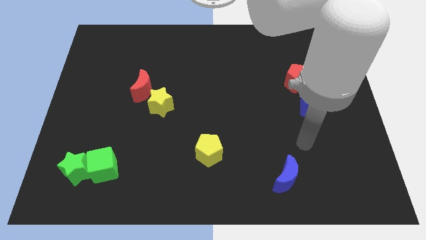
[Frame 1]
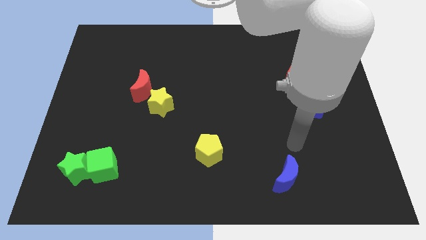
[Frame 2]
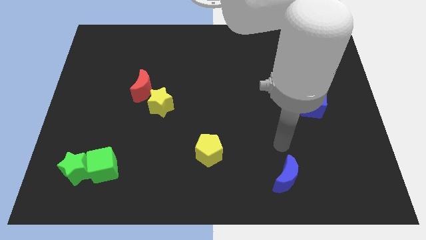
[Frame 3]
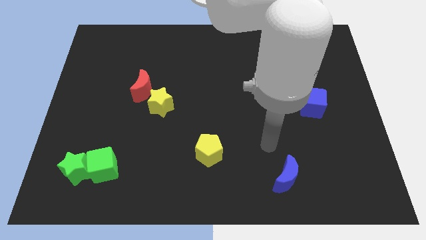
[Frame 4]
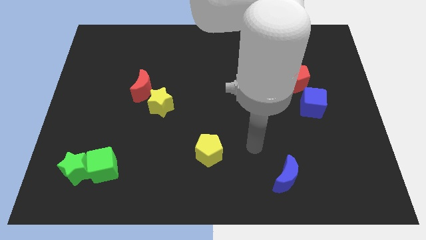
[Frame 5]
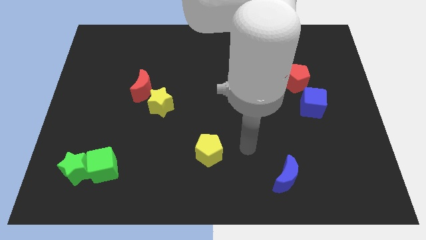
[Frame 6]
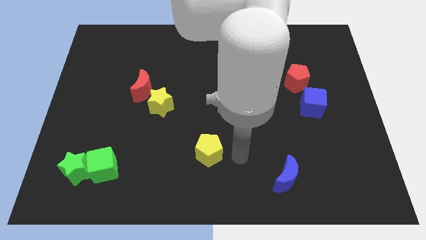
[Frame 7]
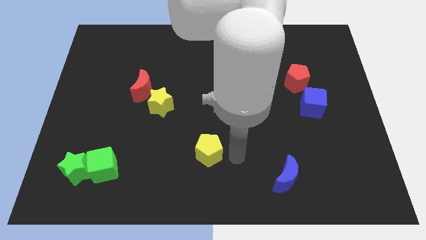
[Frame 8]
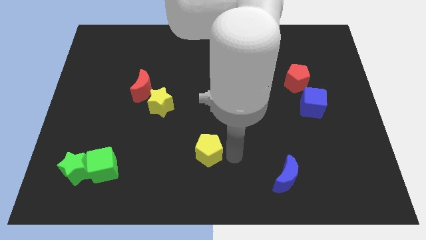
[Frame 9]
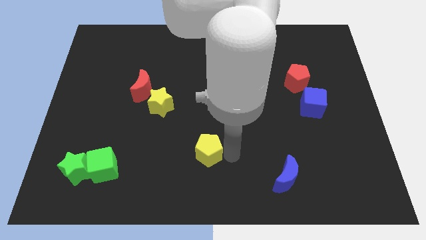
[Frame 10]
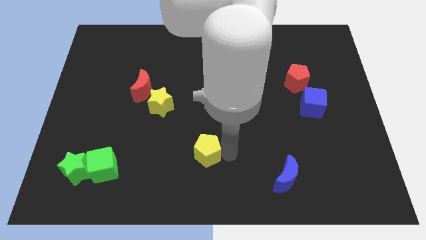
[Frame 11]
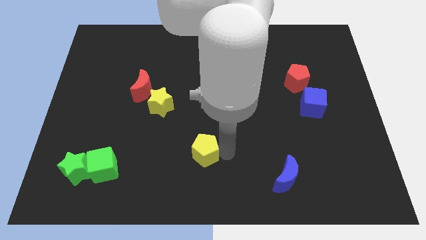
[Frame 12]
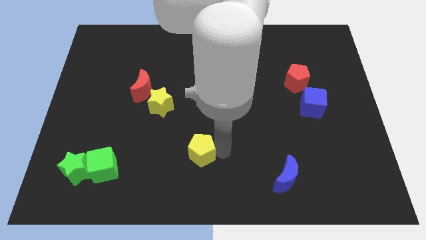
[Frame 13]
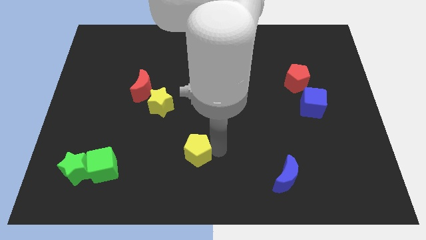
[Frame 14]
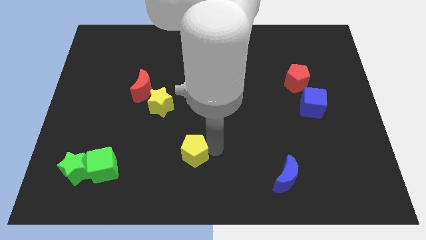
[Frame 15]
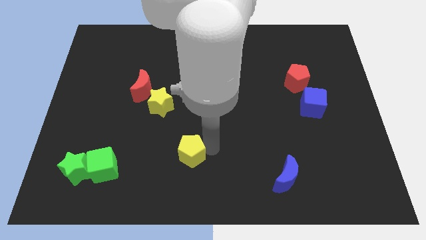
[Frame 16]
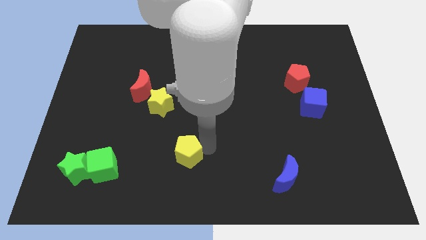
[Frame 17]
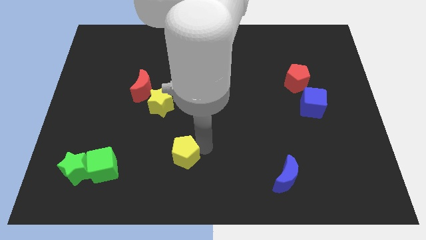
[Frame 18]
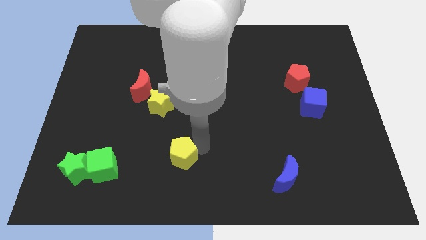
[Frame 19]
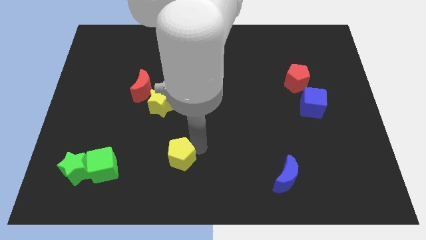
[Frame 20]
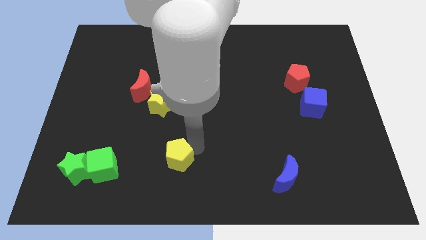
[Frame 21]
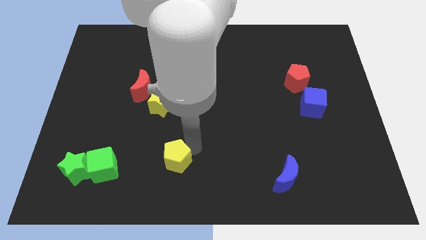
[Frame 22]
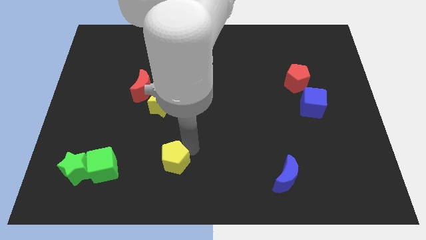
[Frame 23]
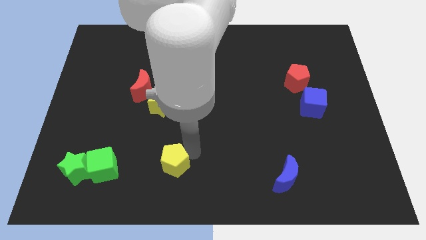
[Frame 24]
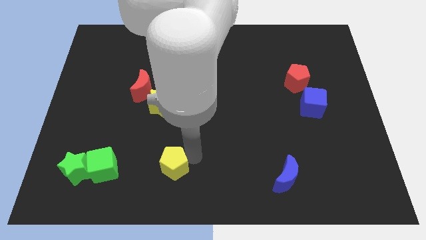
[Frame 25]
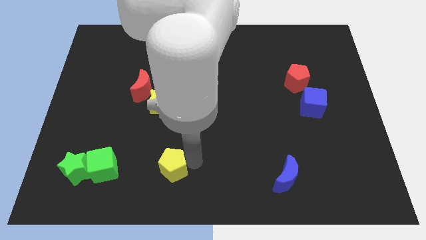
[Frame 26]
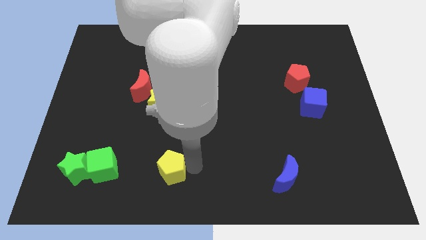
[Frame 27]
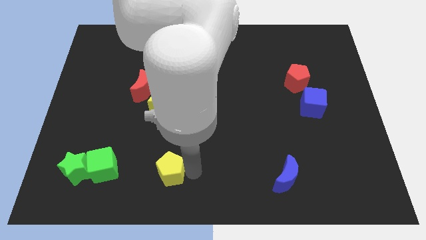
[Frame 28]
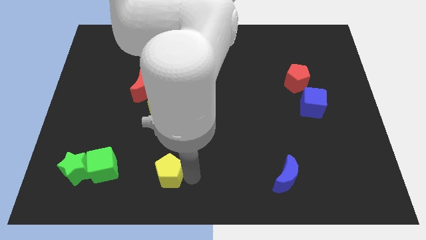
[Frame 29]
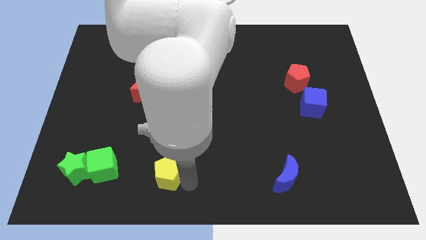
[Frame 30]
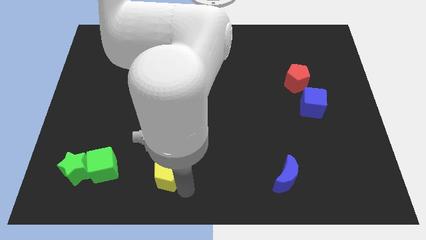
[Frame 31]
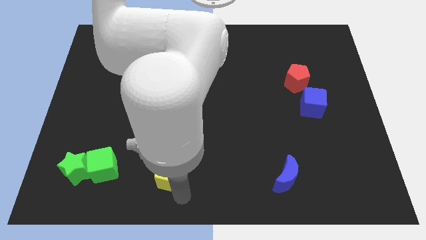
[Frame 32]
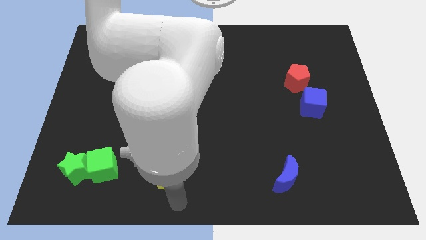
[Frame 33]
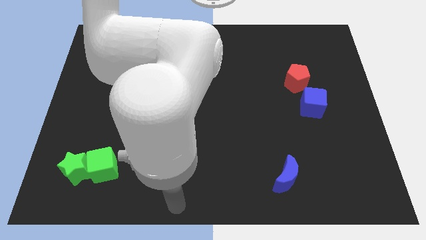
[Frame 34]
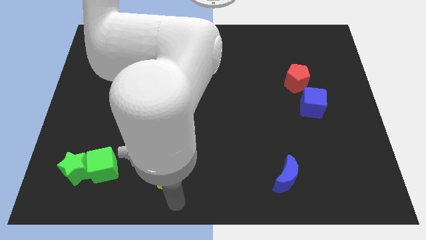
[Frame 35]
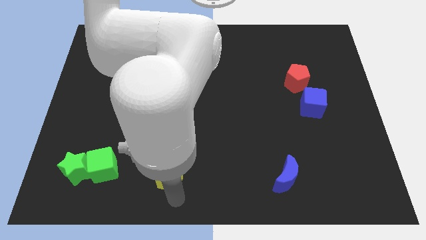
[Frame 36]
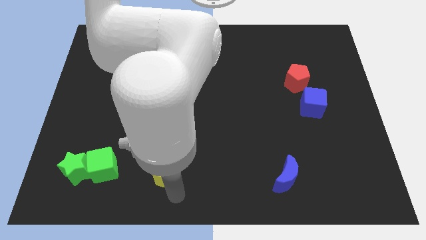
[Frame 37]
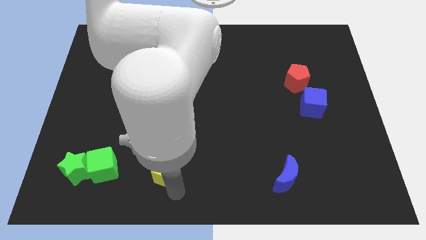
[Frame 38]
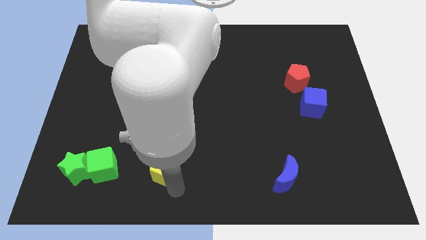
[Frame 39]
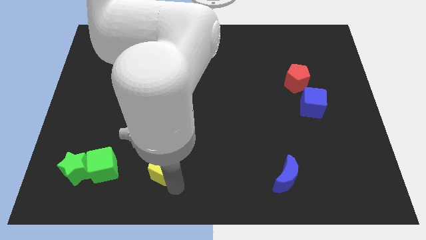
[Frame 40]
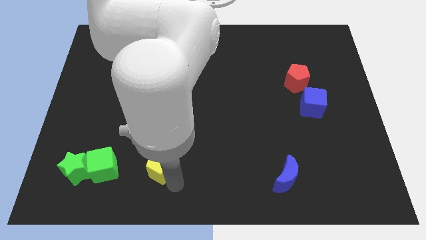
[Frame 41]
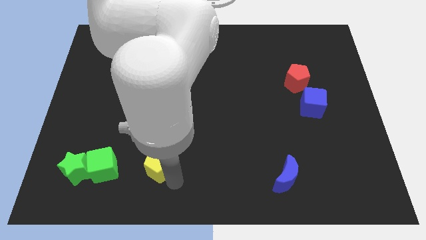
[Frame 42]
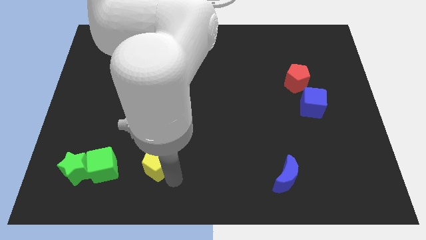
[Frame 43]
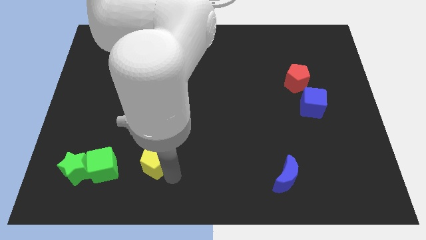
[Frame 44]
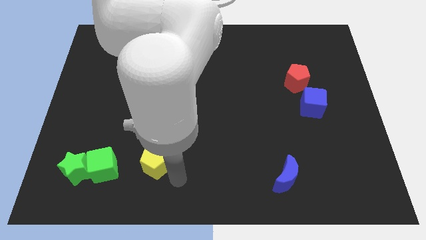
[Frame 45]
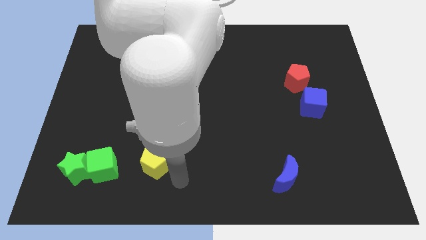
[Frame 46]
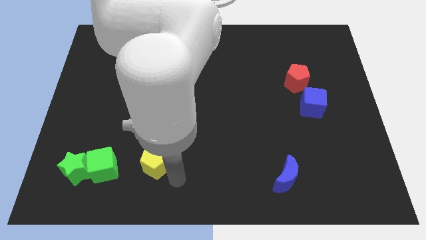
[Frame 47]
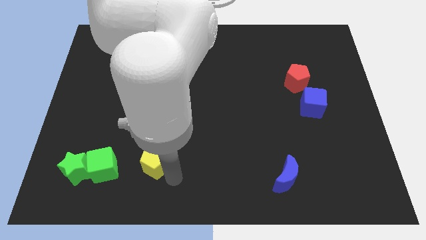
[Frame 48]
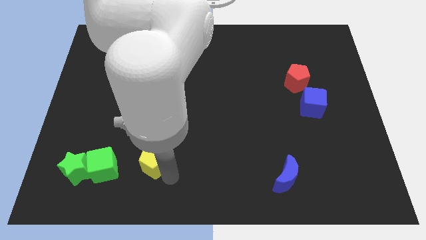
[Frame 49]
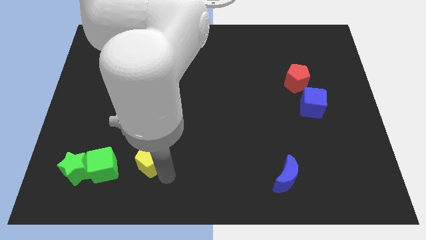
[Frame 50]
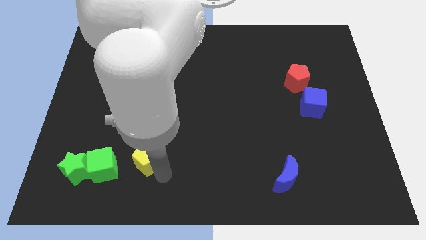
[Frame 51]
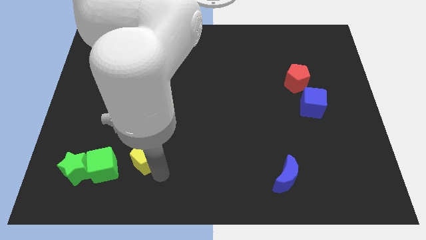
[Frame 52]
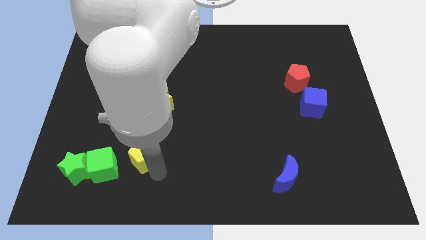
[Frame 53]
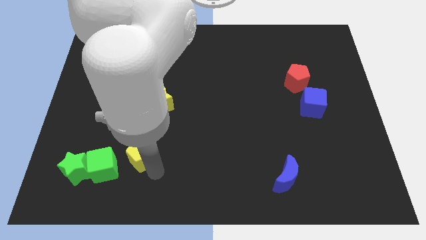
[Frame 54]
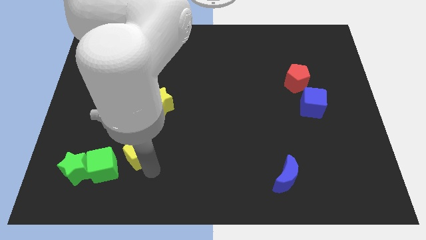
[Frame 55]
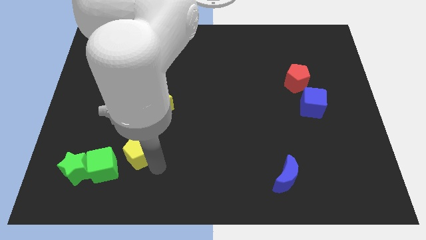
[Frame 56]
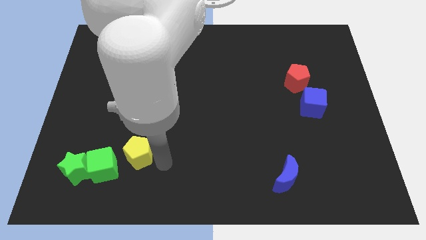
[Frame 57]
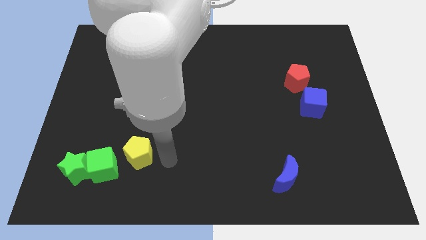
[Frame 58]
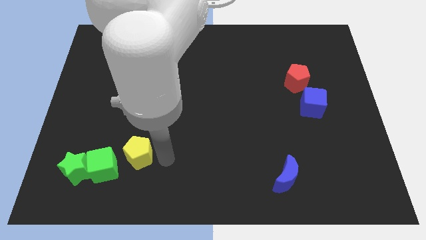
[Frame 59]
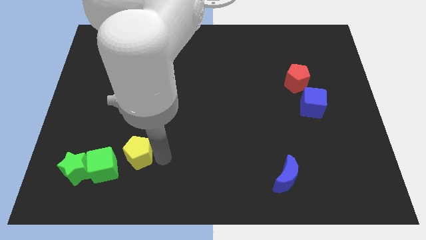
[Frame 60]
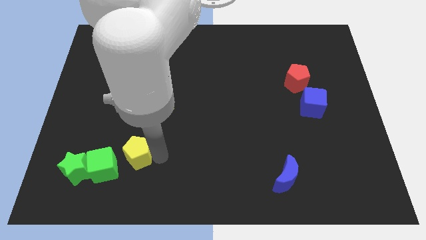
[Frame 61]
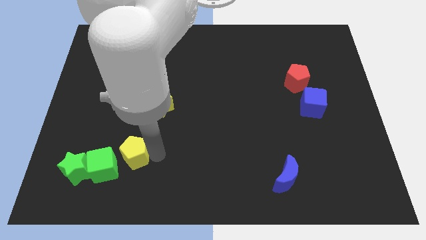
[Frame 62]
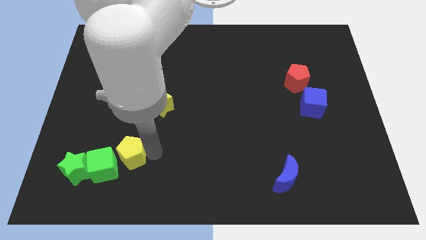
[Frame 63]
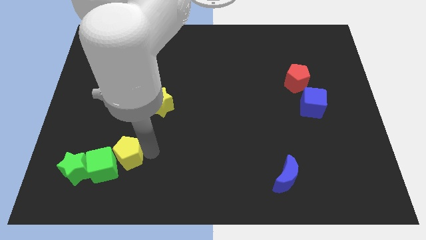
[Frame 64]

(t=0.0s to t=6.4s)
push the yellow pentagon to the top right of the green star
